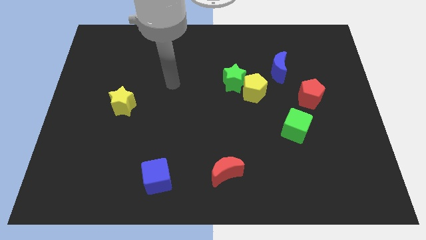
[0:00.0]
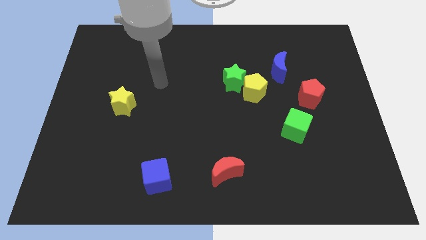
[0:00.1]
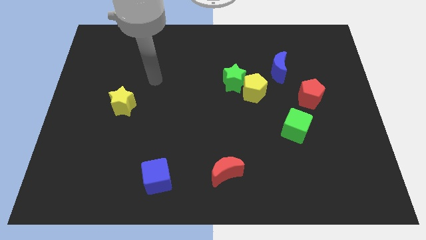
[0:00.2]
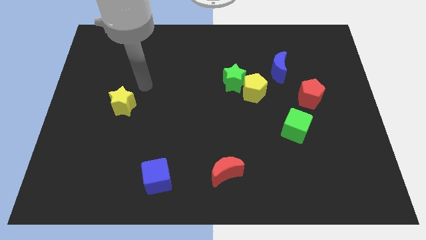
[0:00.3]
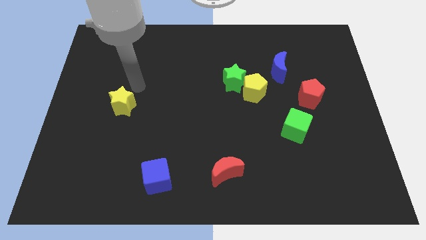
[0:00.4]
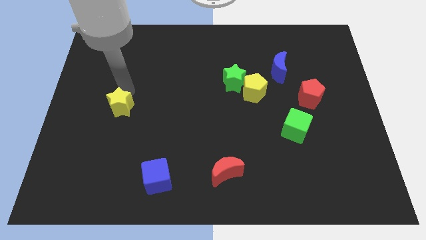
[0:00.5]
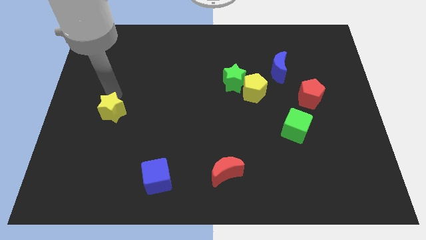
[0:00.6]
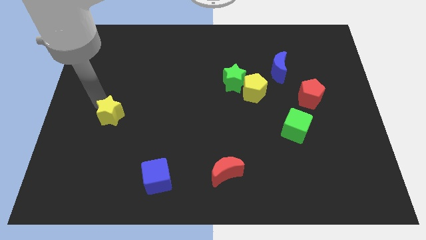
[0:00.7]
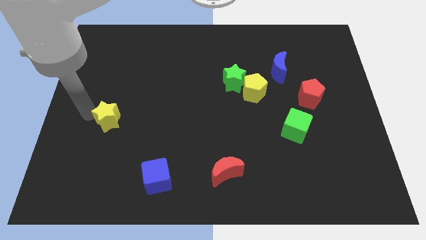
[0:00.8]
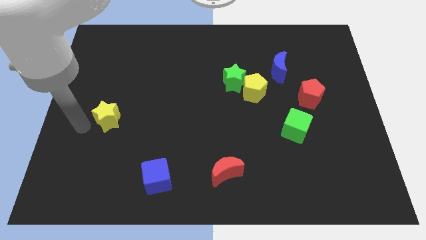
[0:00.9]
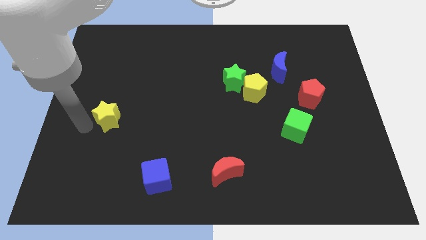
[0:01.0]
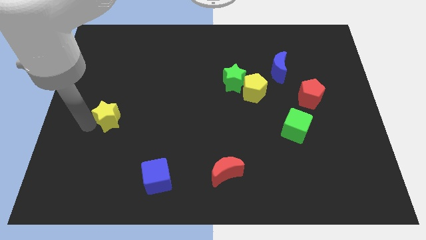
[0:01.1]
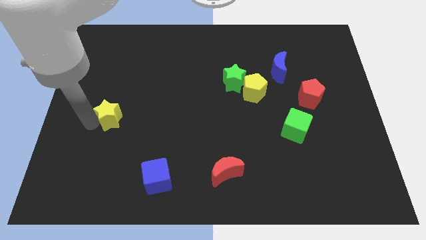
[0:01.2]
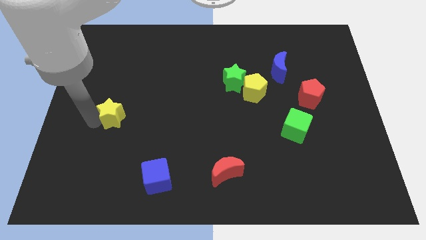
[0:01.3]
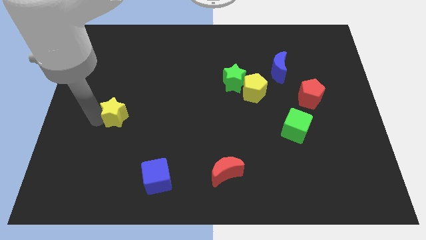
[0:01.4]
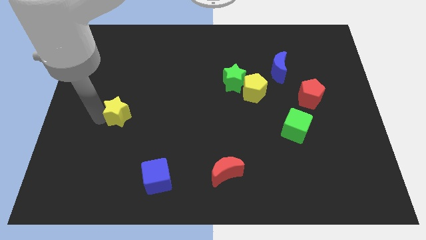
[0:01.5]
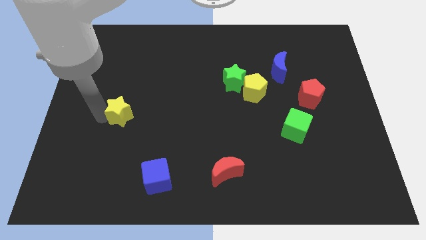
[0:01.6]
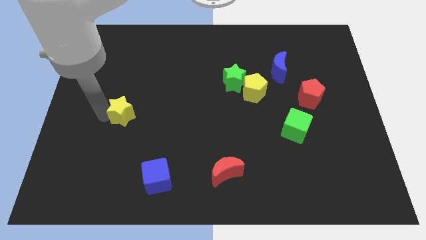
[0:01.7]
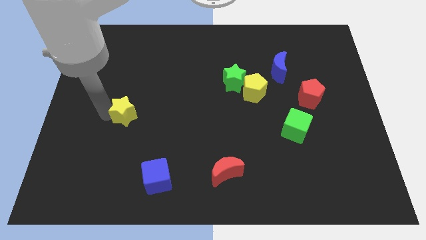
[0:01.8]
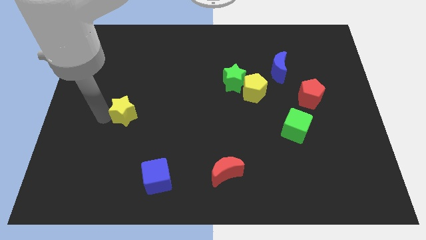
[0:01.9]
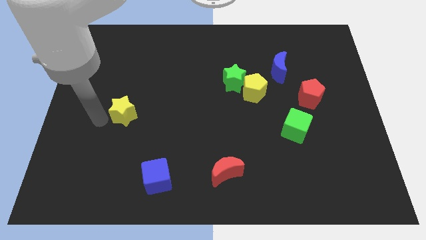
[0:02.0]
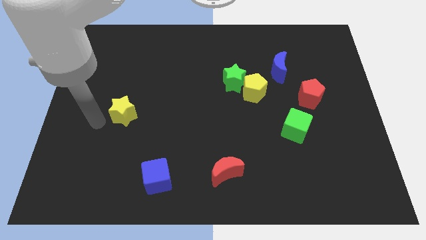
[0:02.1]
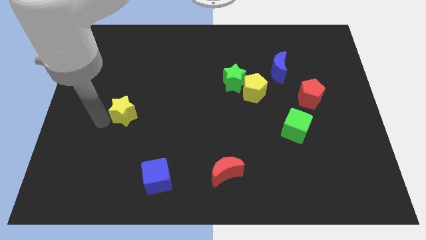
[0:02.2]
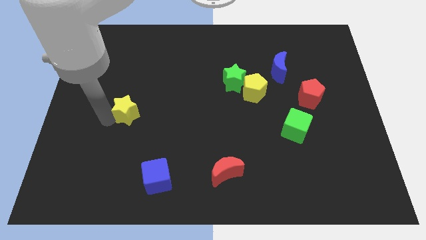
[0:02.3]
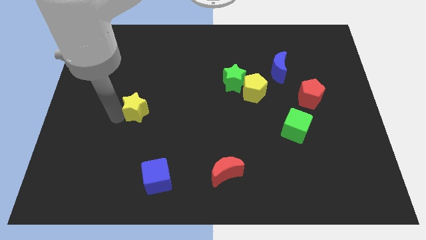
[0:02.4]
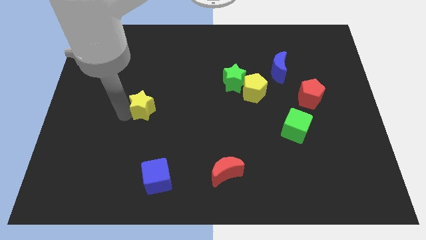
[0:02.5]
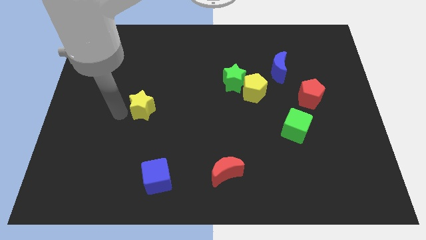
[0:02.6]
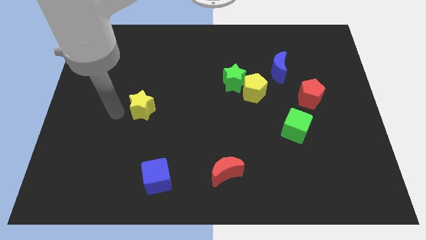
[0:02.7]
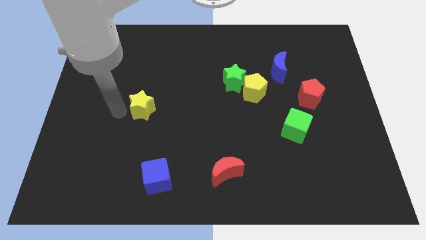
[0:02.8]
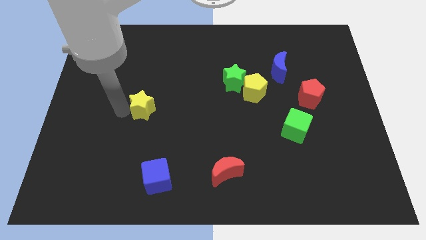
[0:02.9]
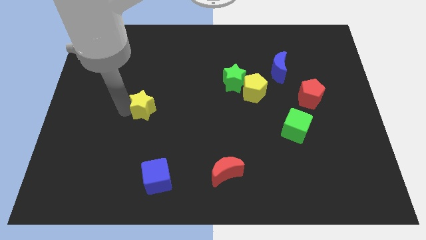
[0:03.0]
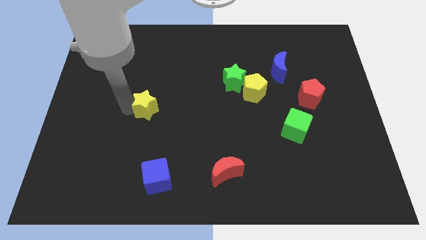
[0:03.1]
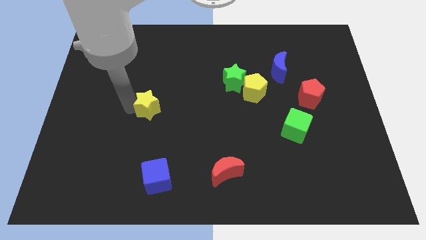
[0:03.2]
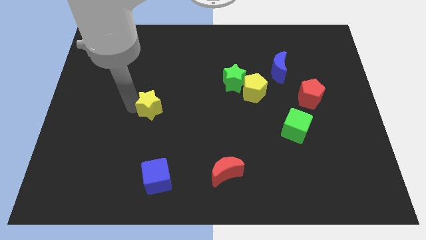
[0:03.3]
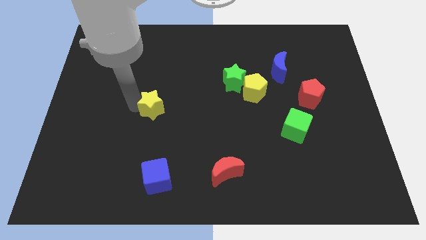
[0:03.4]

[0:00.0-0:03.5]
slide the yellow star slightly to the right

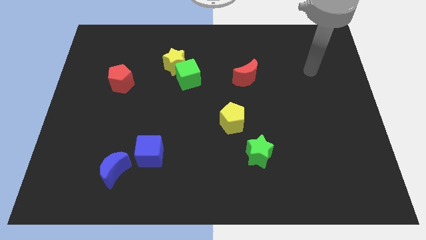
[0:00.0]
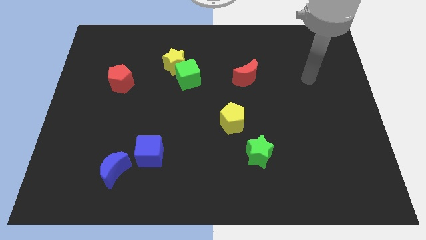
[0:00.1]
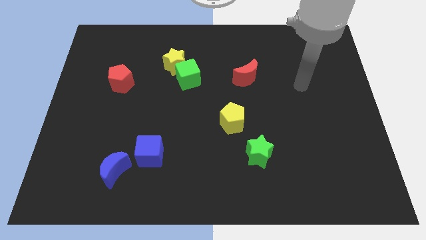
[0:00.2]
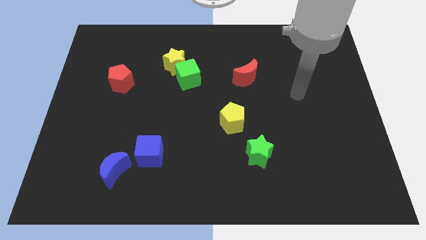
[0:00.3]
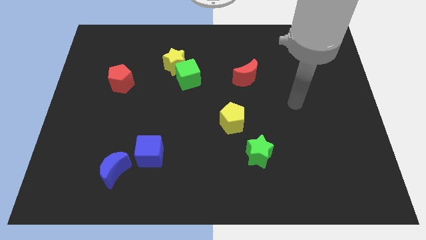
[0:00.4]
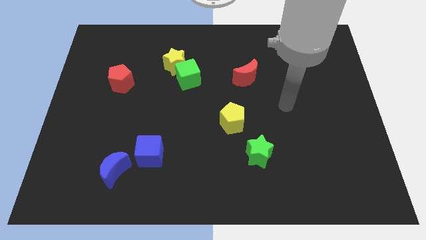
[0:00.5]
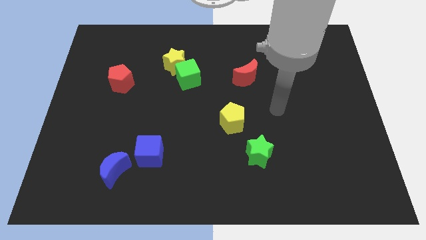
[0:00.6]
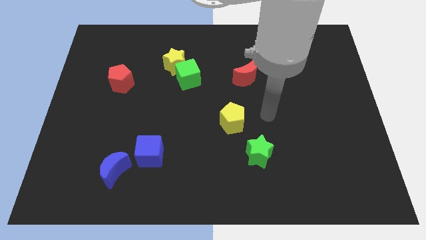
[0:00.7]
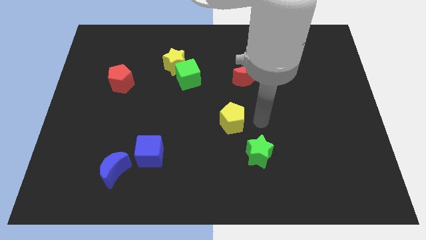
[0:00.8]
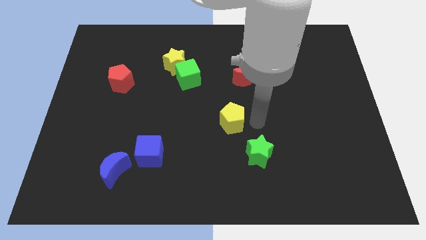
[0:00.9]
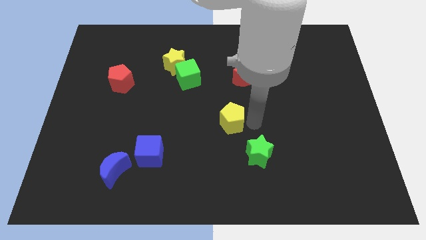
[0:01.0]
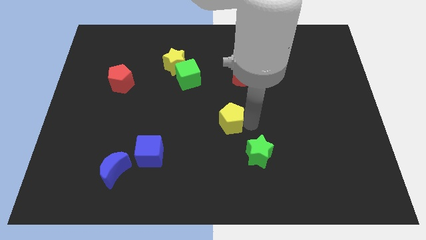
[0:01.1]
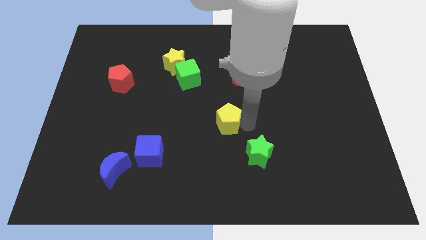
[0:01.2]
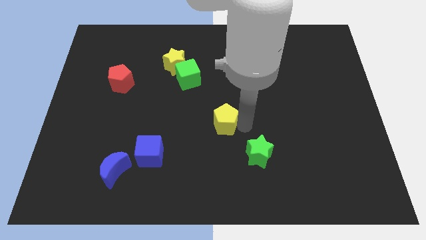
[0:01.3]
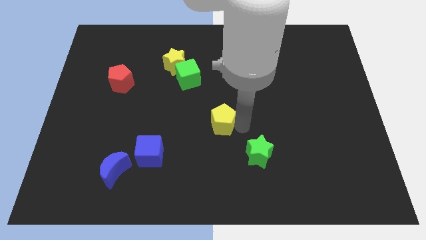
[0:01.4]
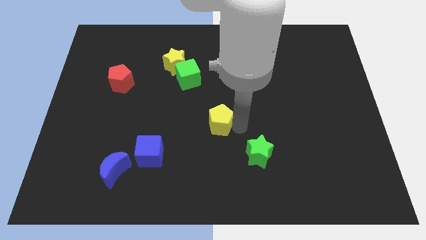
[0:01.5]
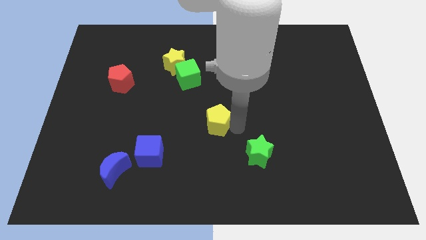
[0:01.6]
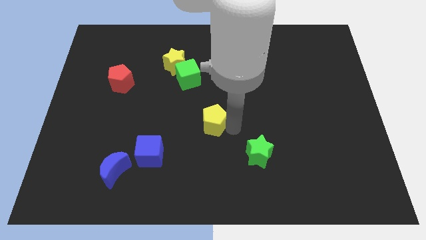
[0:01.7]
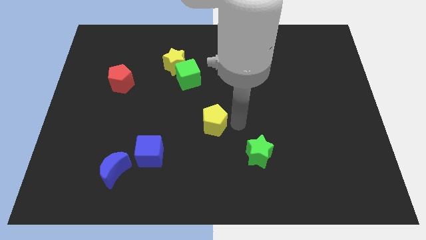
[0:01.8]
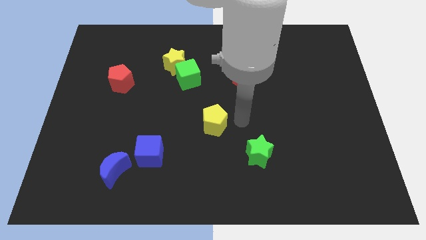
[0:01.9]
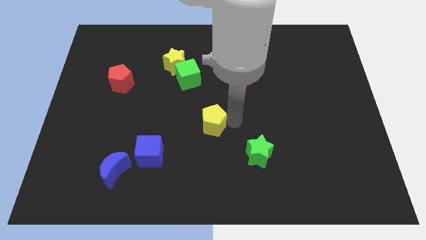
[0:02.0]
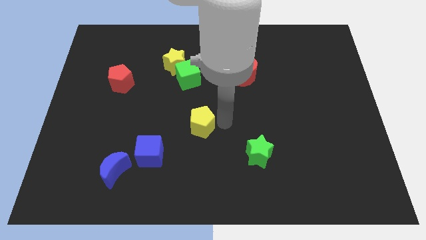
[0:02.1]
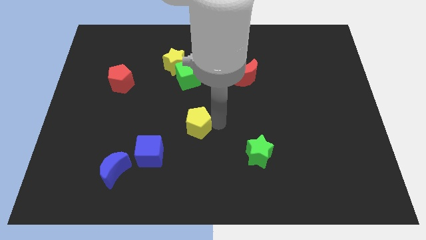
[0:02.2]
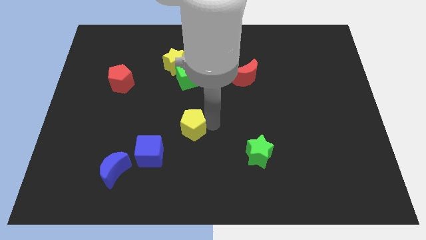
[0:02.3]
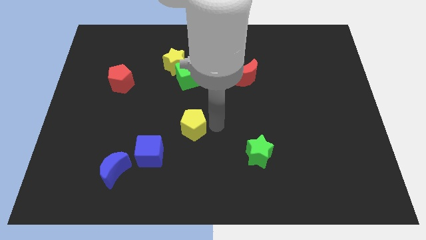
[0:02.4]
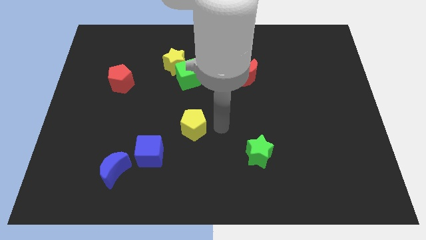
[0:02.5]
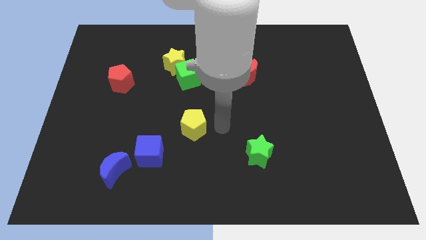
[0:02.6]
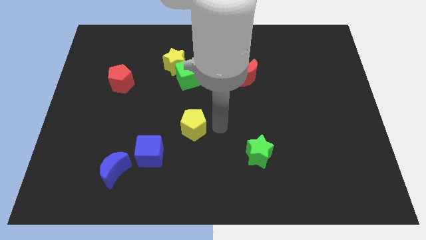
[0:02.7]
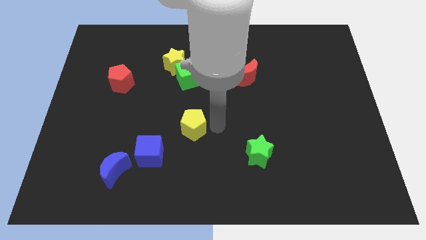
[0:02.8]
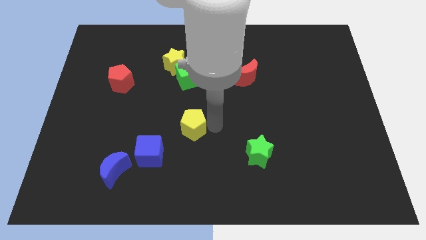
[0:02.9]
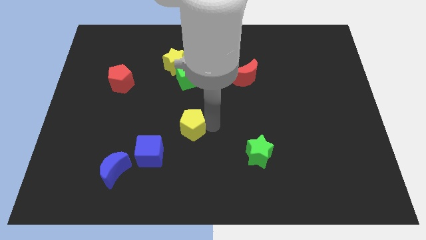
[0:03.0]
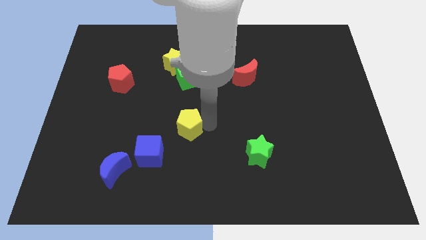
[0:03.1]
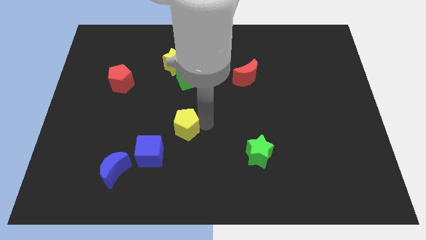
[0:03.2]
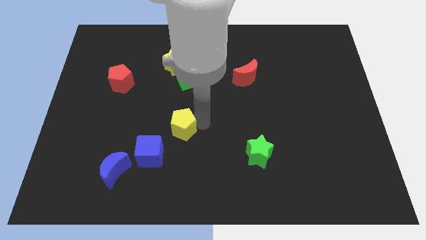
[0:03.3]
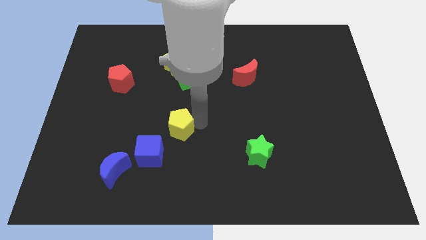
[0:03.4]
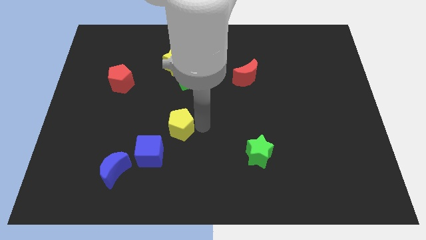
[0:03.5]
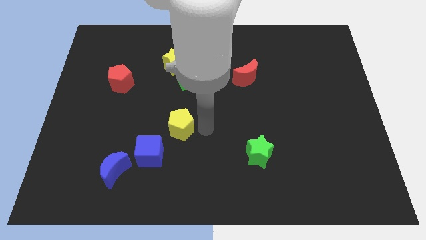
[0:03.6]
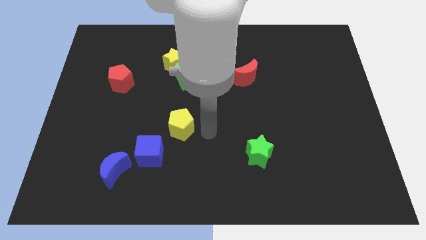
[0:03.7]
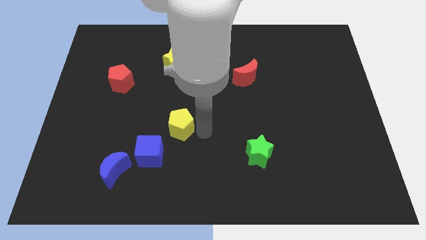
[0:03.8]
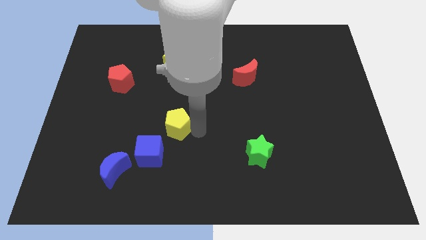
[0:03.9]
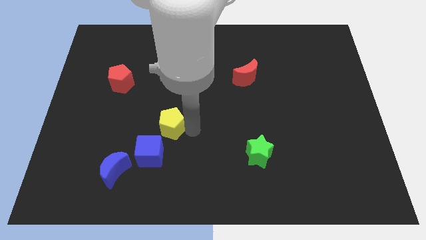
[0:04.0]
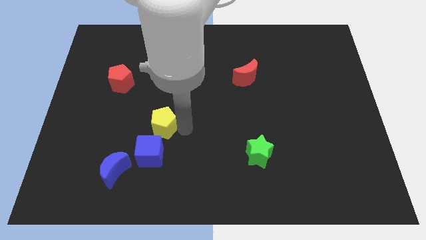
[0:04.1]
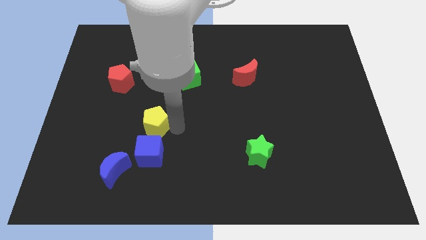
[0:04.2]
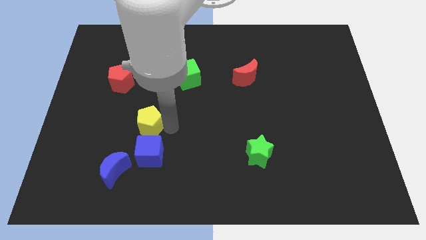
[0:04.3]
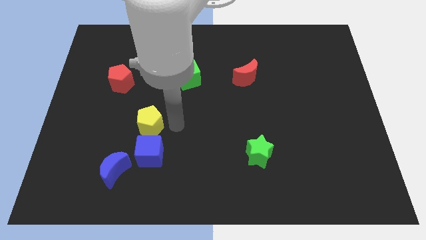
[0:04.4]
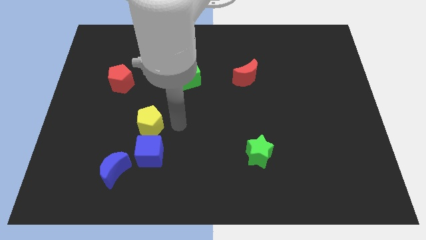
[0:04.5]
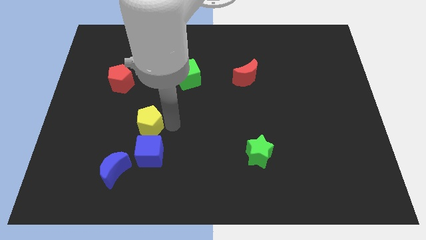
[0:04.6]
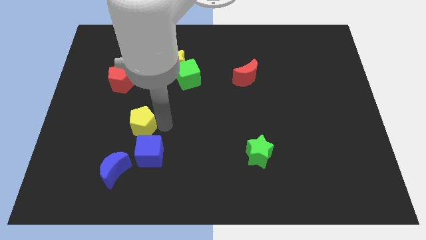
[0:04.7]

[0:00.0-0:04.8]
push the yellow pentagon to the left

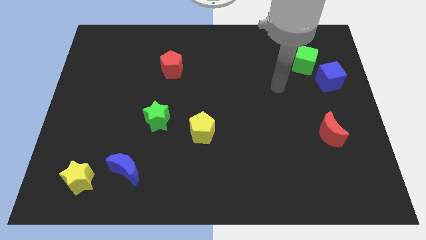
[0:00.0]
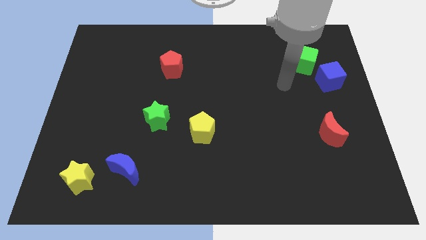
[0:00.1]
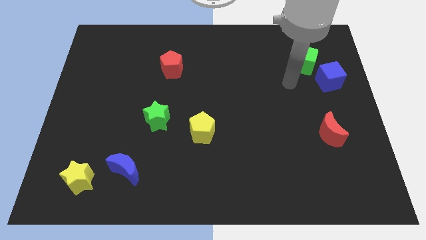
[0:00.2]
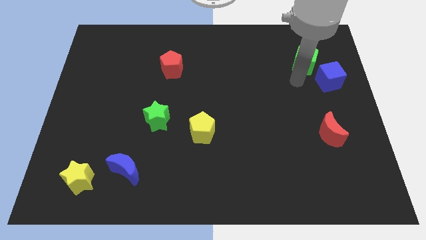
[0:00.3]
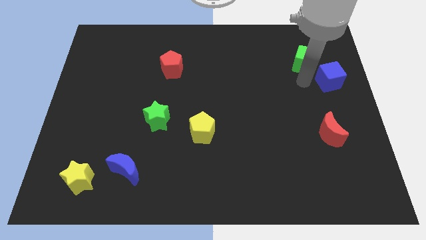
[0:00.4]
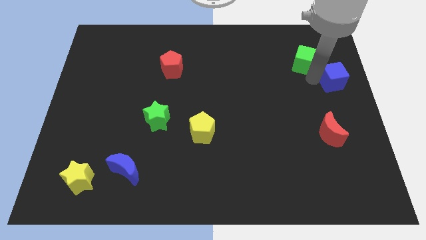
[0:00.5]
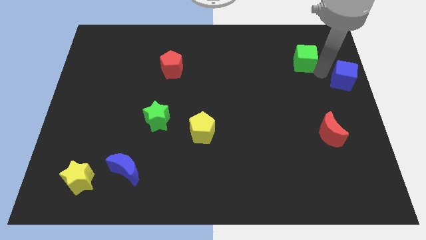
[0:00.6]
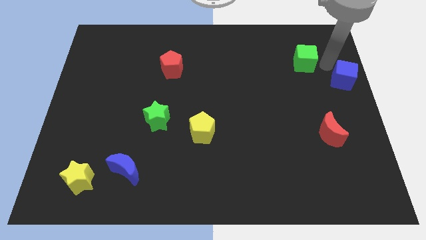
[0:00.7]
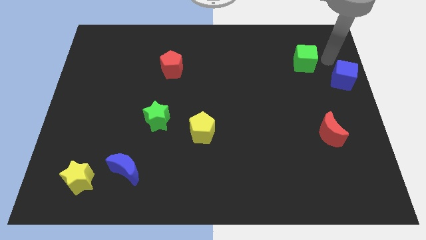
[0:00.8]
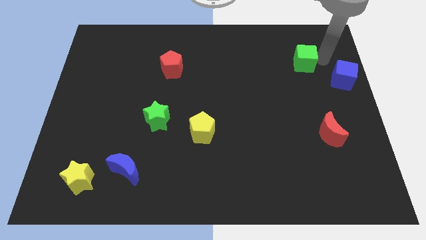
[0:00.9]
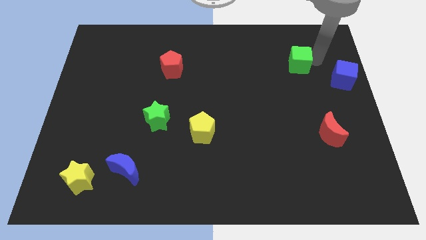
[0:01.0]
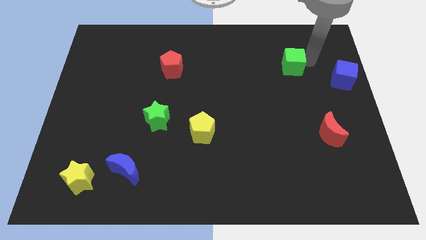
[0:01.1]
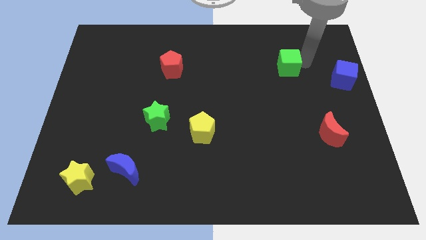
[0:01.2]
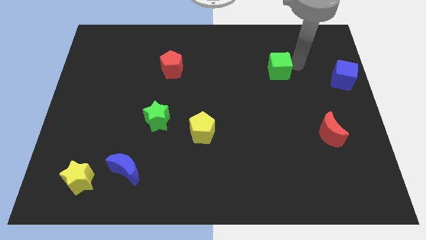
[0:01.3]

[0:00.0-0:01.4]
push the green cube left a little bit
